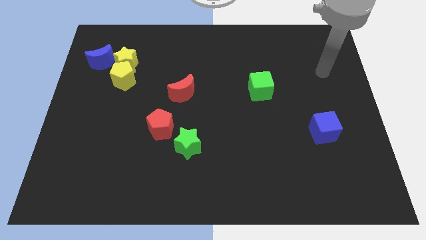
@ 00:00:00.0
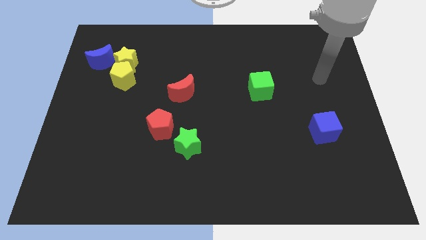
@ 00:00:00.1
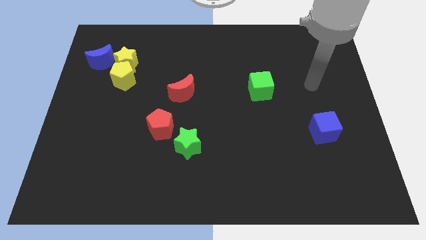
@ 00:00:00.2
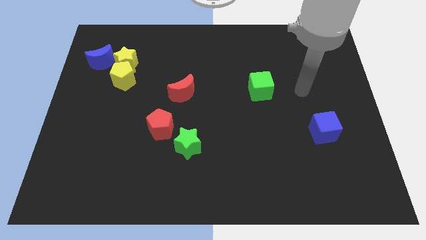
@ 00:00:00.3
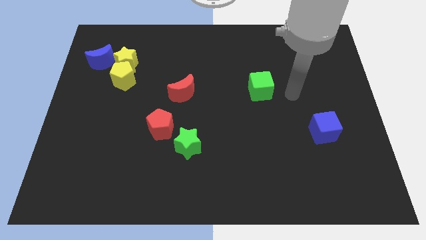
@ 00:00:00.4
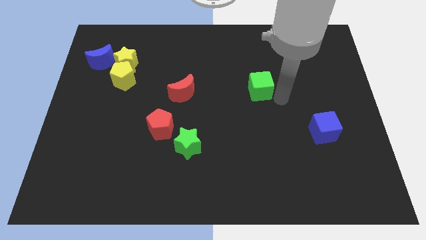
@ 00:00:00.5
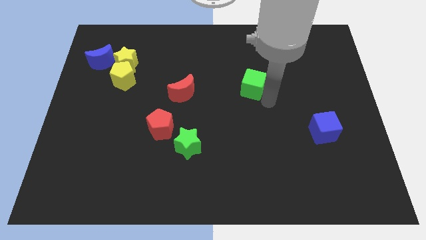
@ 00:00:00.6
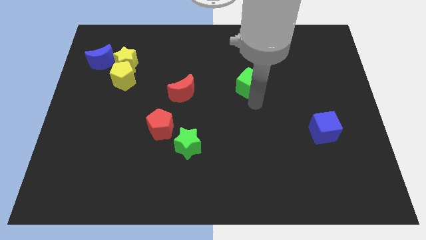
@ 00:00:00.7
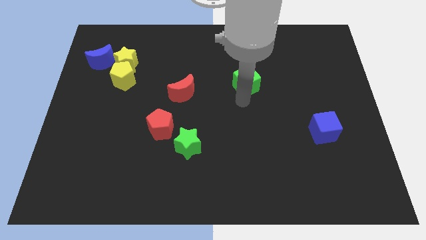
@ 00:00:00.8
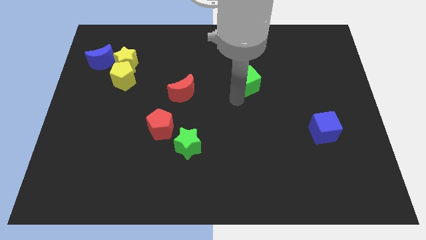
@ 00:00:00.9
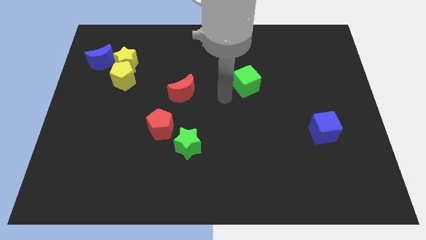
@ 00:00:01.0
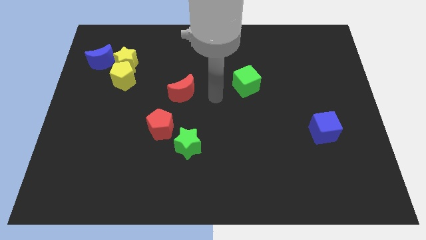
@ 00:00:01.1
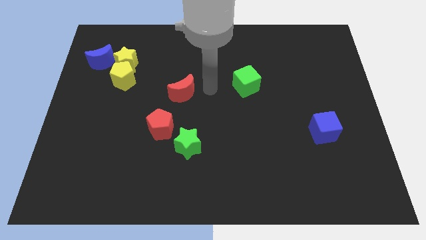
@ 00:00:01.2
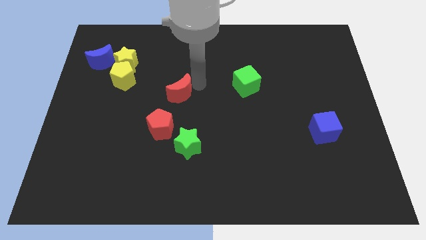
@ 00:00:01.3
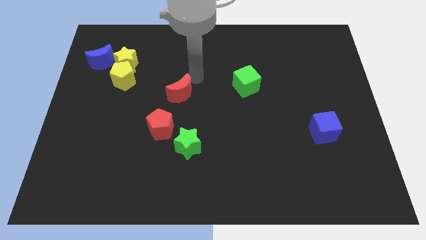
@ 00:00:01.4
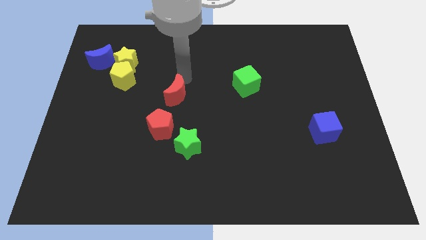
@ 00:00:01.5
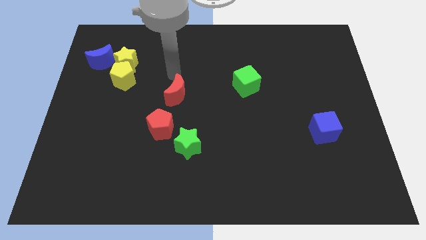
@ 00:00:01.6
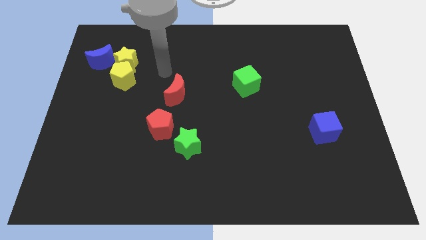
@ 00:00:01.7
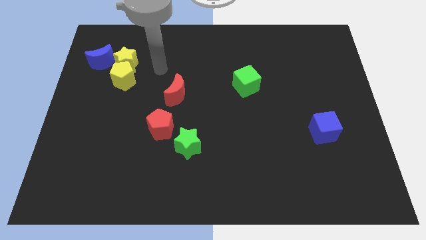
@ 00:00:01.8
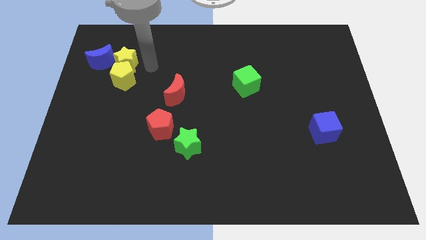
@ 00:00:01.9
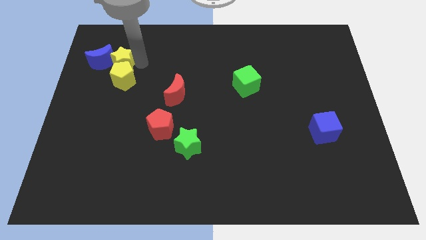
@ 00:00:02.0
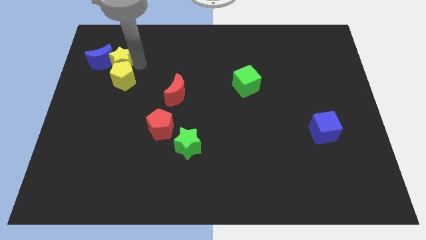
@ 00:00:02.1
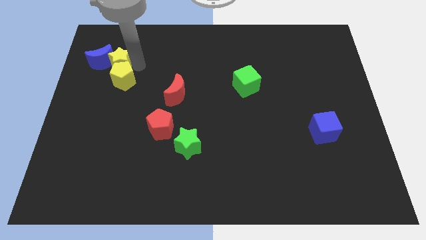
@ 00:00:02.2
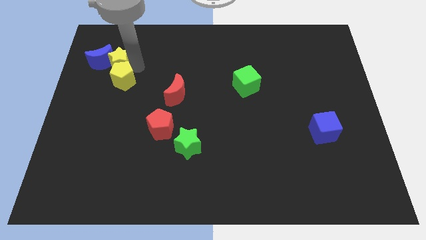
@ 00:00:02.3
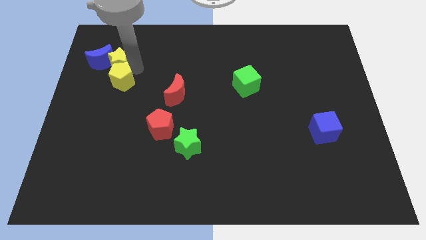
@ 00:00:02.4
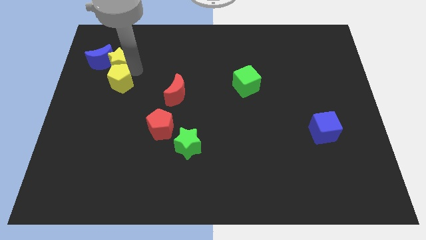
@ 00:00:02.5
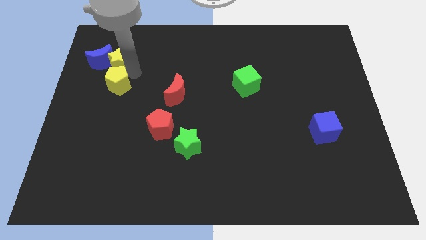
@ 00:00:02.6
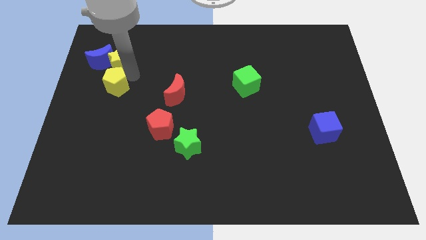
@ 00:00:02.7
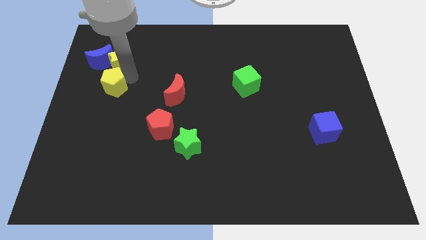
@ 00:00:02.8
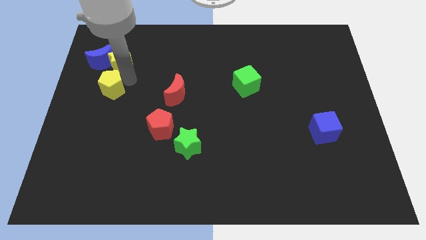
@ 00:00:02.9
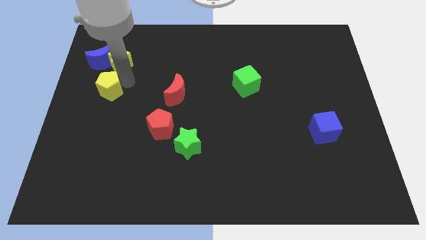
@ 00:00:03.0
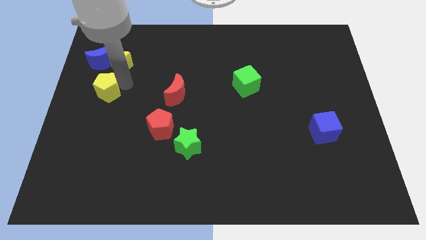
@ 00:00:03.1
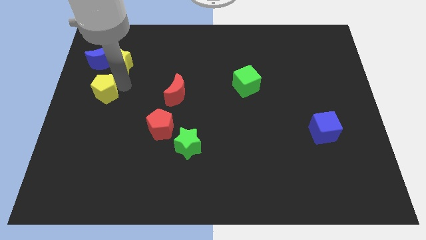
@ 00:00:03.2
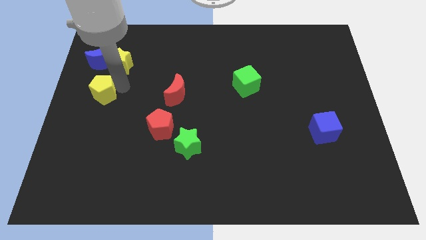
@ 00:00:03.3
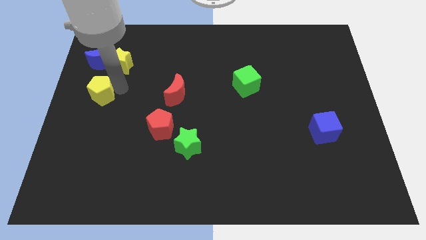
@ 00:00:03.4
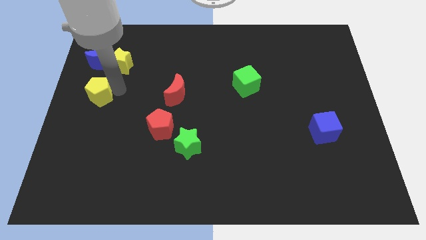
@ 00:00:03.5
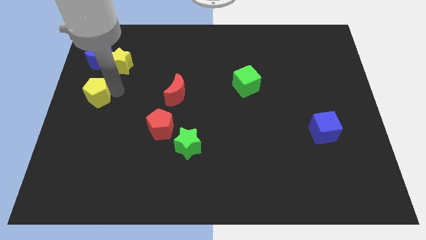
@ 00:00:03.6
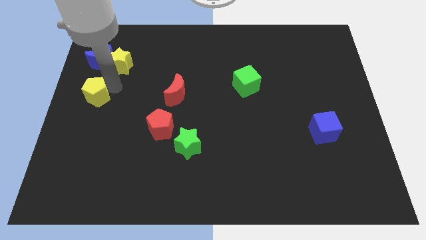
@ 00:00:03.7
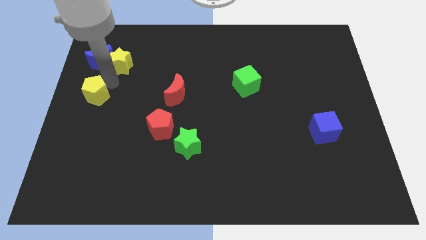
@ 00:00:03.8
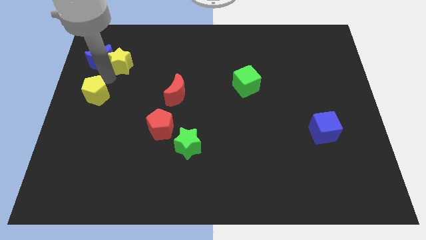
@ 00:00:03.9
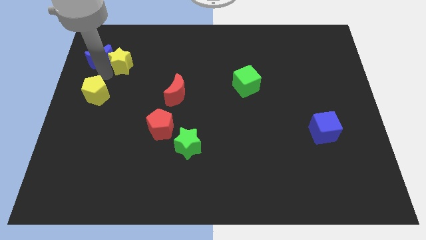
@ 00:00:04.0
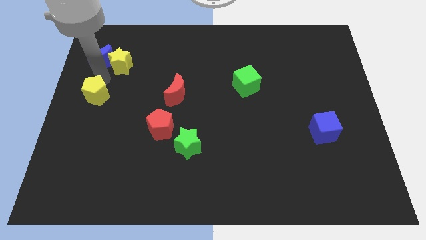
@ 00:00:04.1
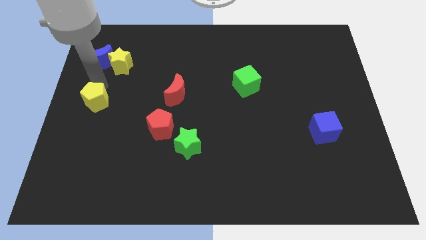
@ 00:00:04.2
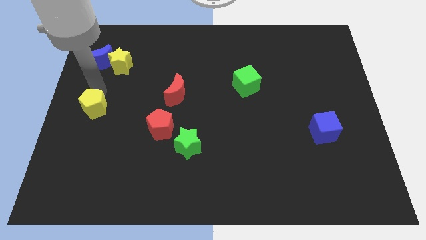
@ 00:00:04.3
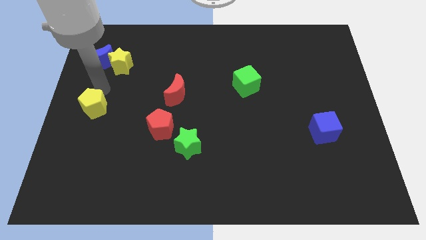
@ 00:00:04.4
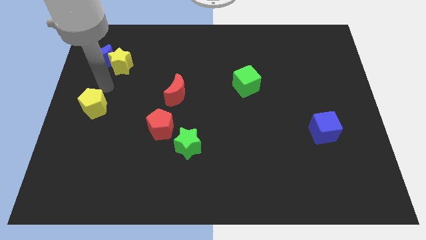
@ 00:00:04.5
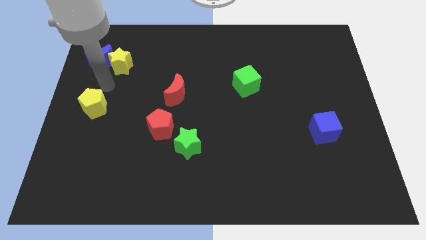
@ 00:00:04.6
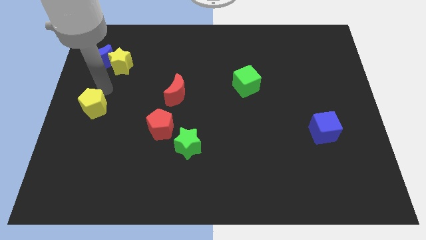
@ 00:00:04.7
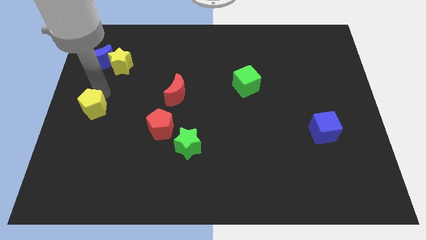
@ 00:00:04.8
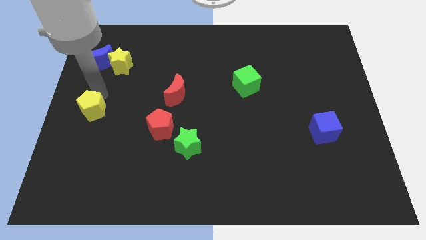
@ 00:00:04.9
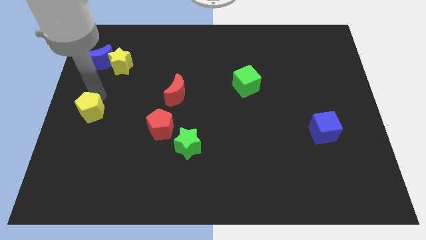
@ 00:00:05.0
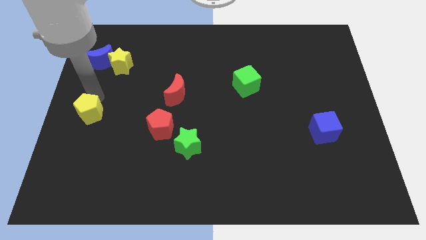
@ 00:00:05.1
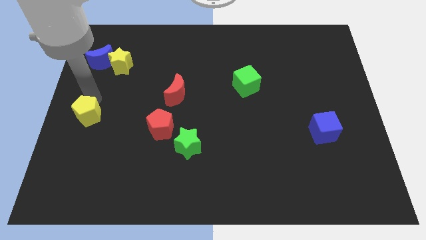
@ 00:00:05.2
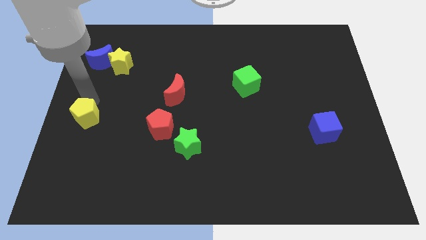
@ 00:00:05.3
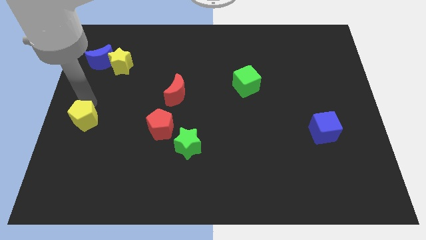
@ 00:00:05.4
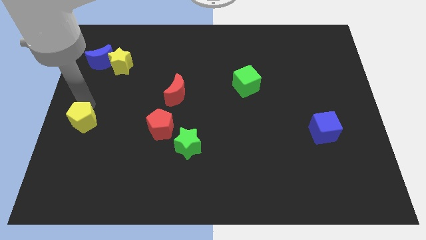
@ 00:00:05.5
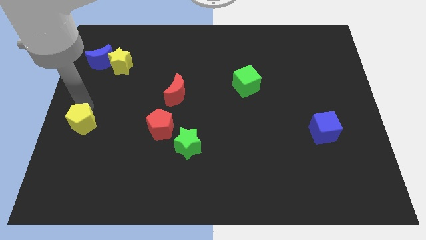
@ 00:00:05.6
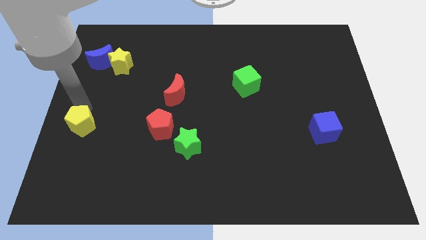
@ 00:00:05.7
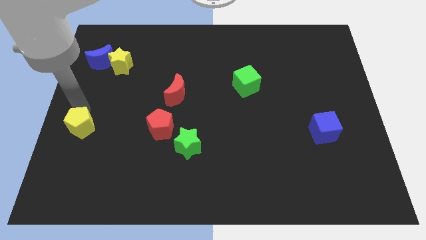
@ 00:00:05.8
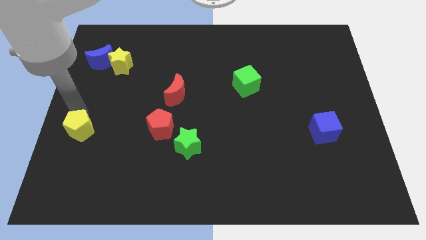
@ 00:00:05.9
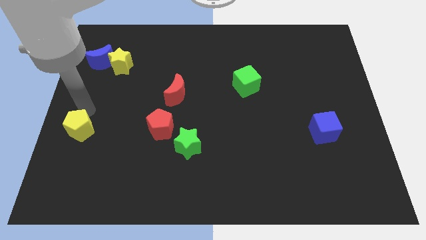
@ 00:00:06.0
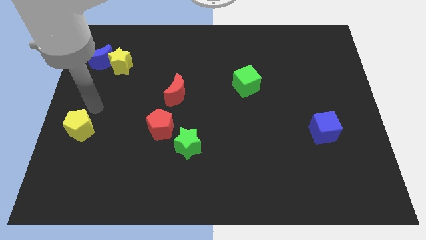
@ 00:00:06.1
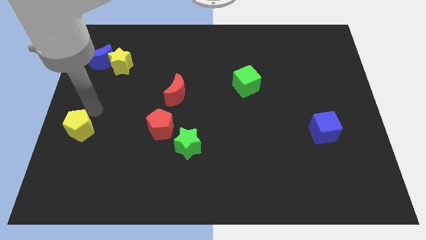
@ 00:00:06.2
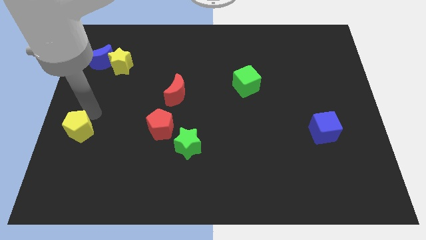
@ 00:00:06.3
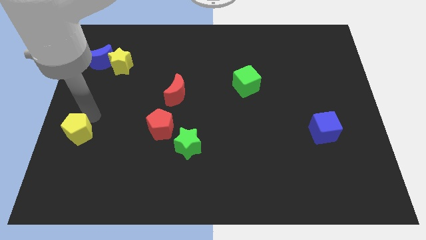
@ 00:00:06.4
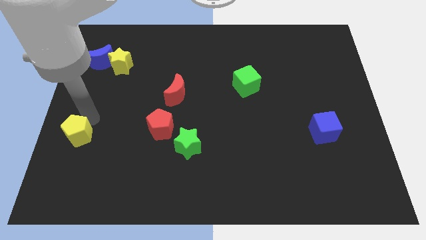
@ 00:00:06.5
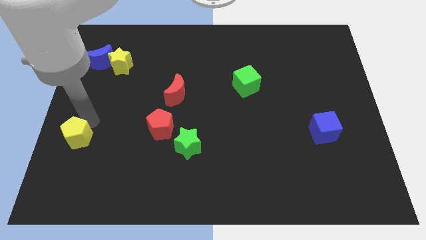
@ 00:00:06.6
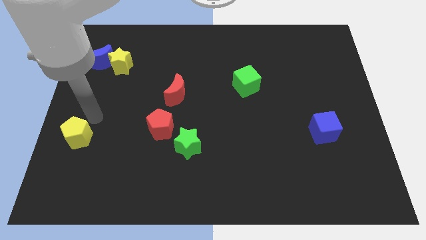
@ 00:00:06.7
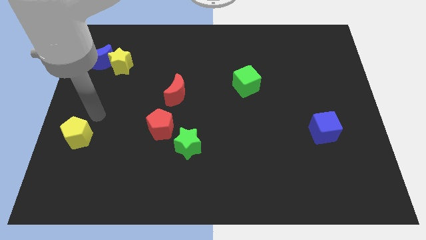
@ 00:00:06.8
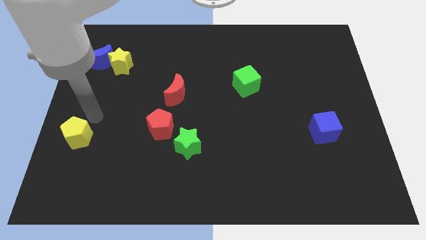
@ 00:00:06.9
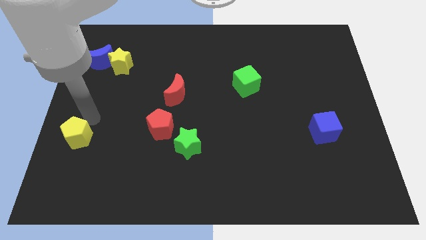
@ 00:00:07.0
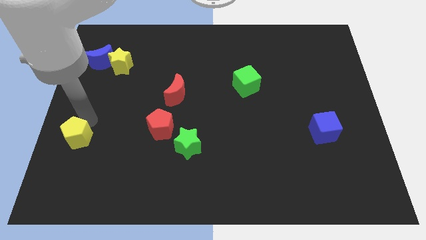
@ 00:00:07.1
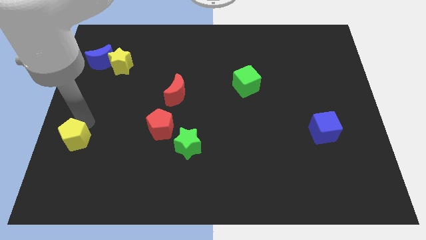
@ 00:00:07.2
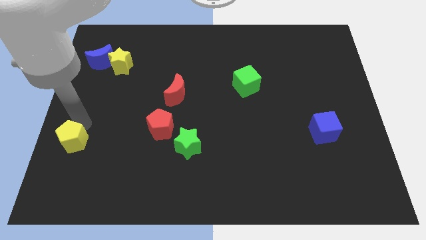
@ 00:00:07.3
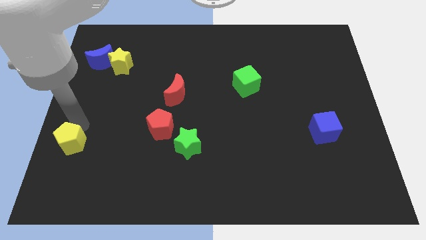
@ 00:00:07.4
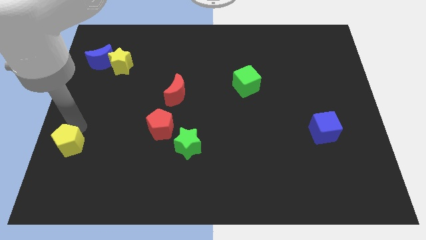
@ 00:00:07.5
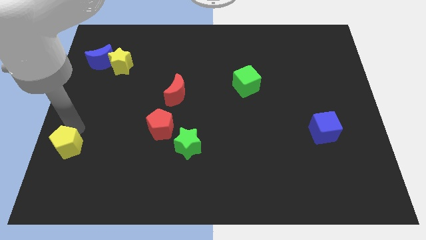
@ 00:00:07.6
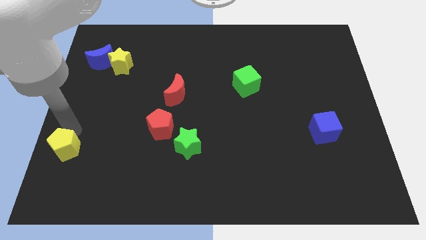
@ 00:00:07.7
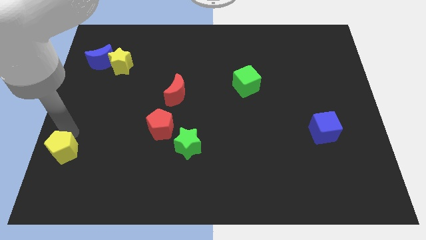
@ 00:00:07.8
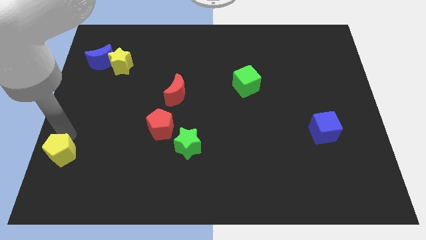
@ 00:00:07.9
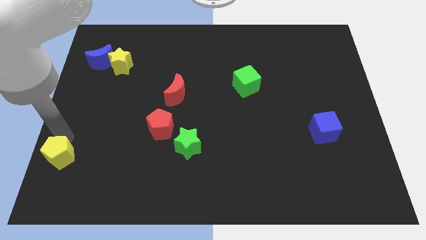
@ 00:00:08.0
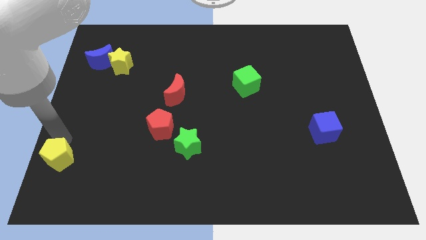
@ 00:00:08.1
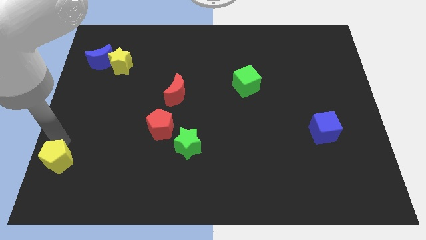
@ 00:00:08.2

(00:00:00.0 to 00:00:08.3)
move the yellow pentagon to the bottom left of the board
